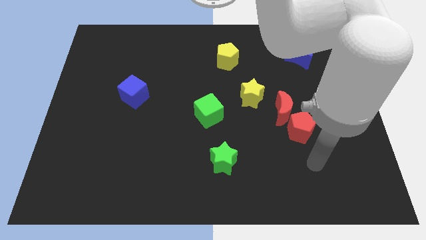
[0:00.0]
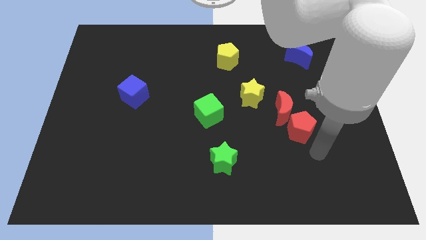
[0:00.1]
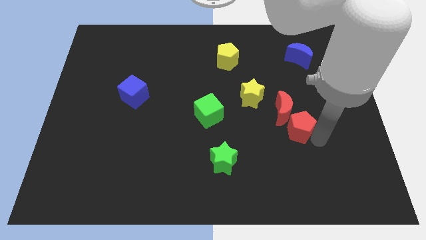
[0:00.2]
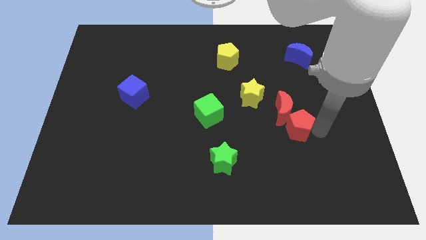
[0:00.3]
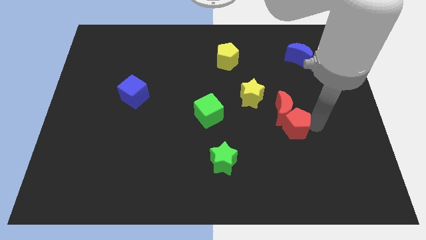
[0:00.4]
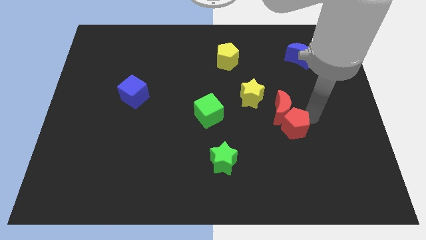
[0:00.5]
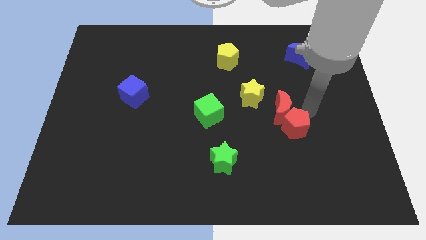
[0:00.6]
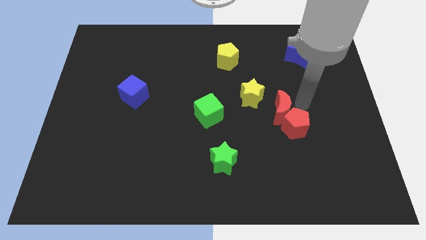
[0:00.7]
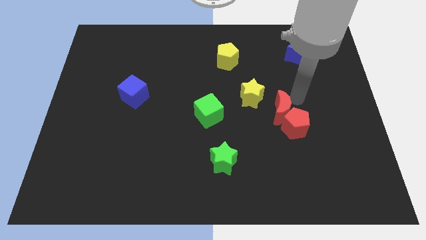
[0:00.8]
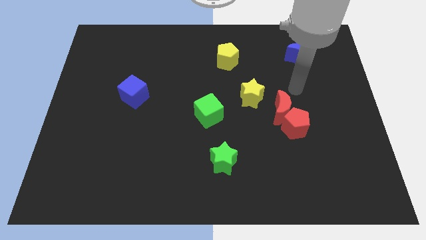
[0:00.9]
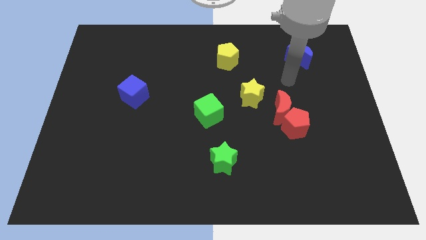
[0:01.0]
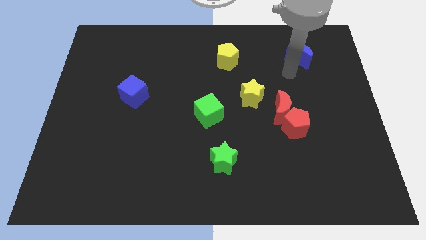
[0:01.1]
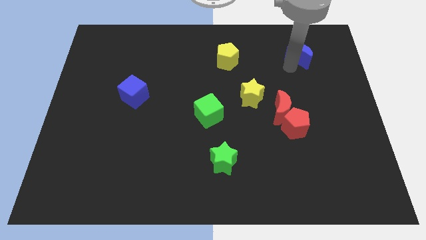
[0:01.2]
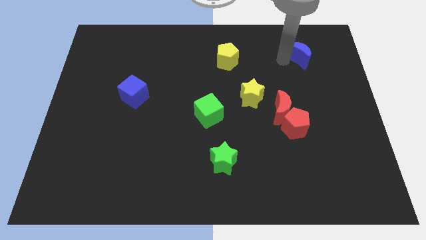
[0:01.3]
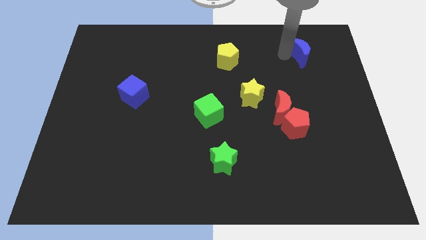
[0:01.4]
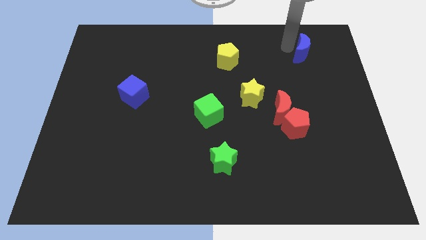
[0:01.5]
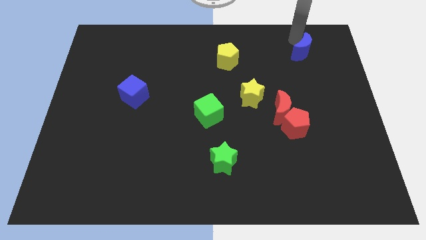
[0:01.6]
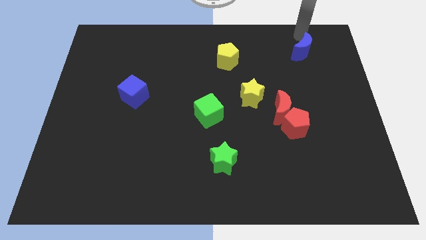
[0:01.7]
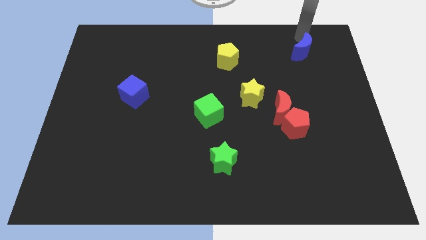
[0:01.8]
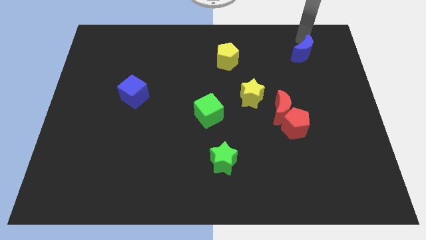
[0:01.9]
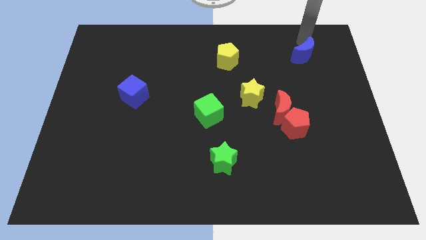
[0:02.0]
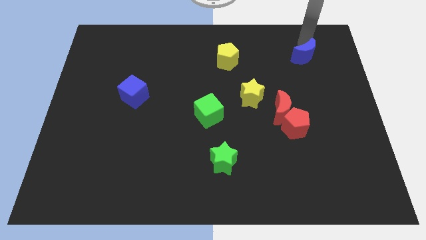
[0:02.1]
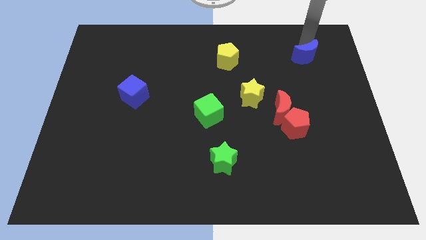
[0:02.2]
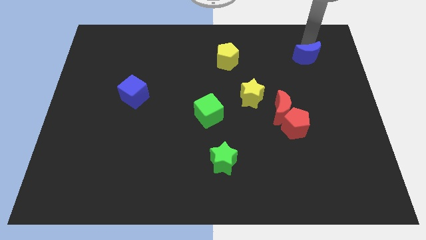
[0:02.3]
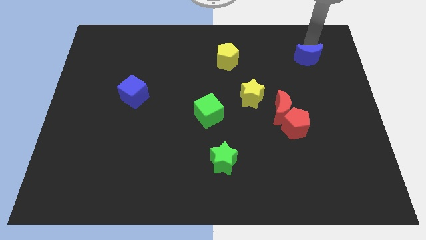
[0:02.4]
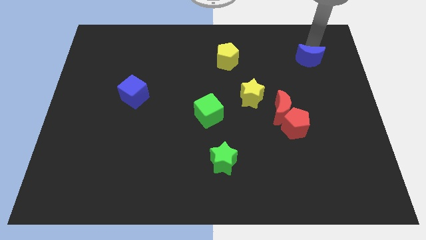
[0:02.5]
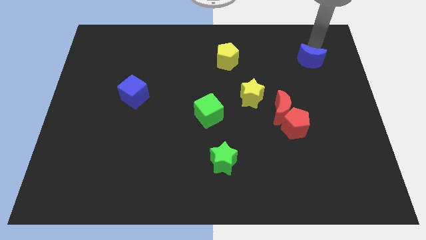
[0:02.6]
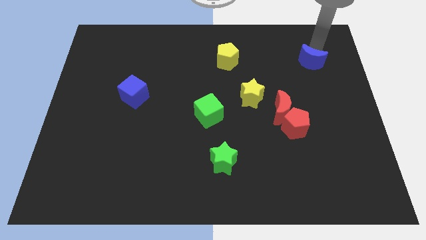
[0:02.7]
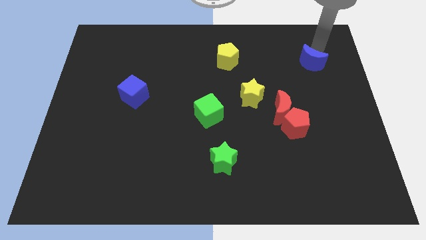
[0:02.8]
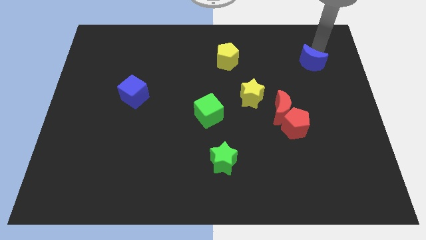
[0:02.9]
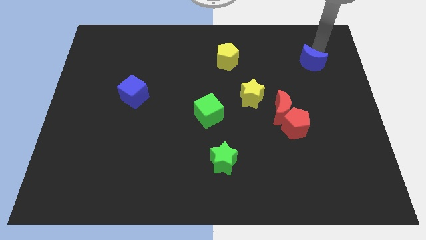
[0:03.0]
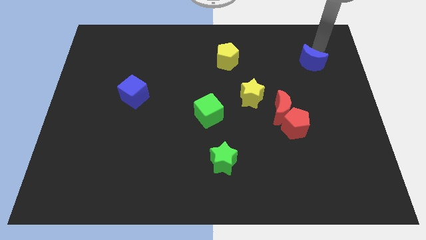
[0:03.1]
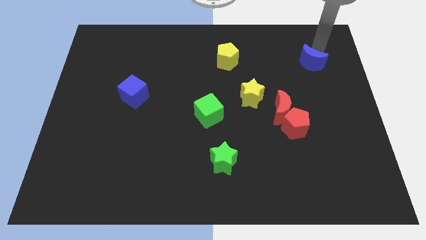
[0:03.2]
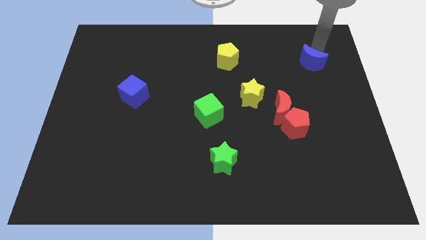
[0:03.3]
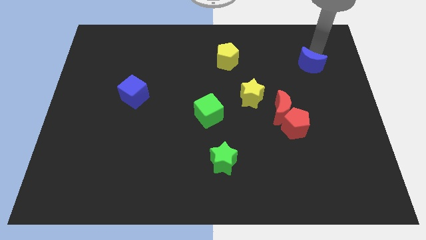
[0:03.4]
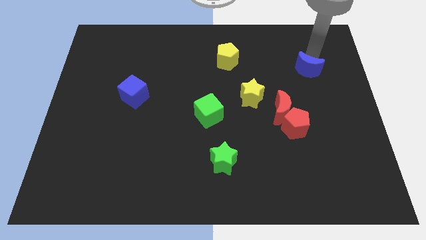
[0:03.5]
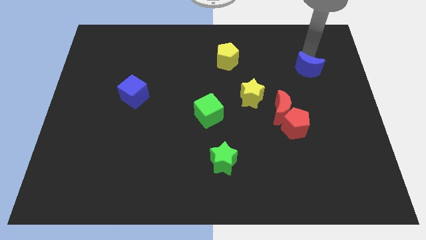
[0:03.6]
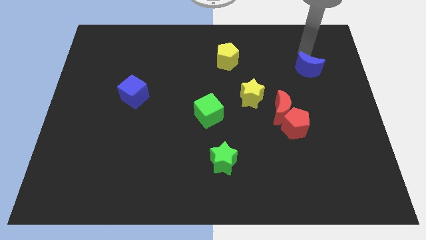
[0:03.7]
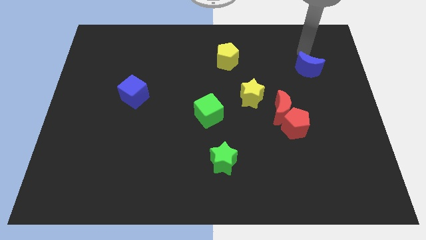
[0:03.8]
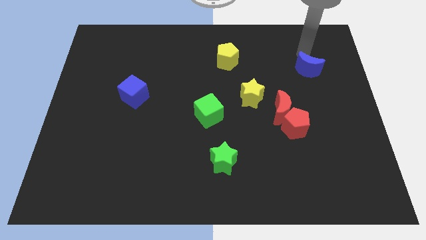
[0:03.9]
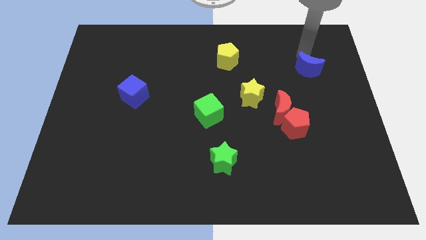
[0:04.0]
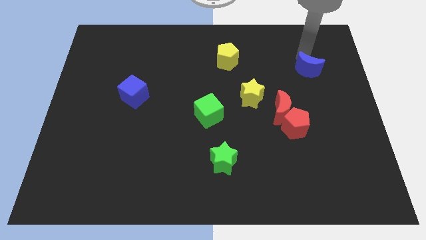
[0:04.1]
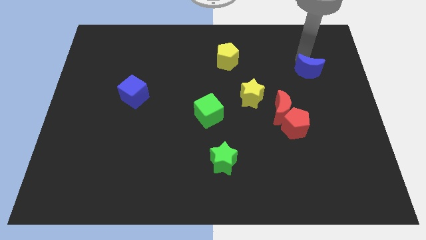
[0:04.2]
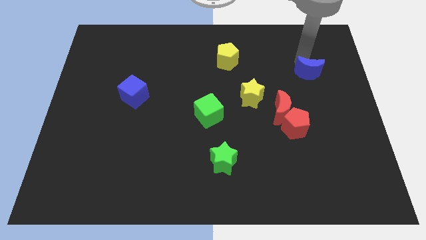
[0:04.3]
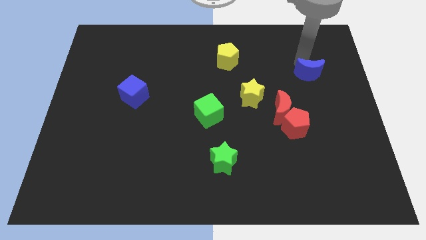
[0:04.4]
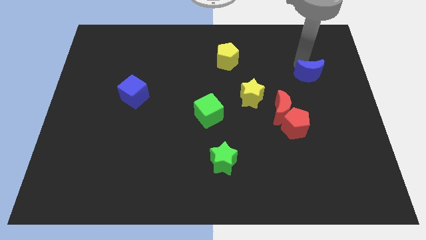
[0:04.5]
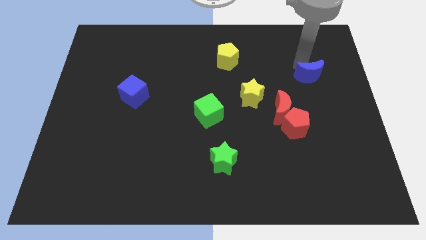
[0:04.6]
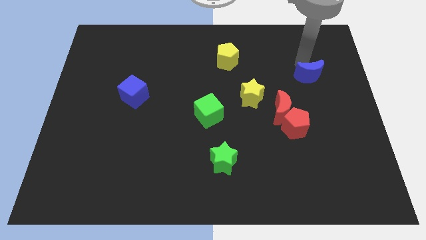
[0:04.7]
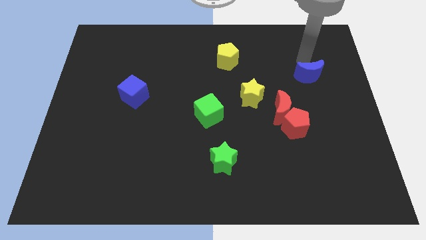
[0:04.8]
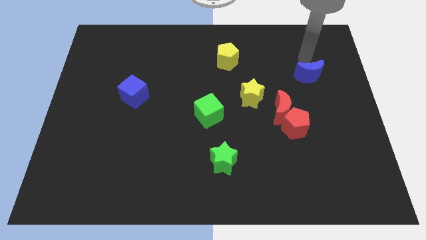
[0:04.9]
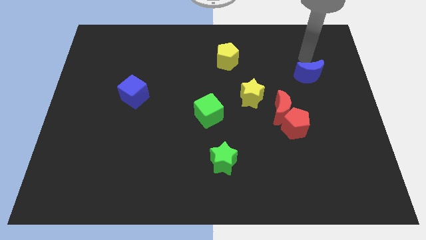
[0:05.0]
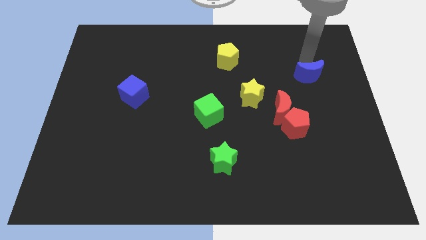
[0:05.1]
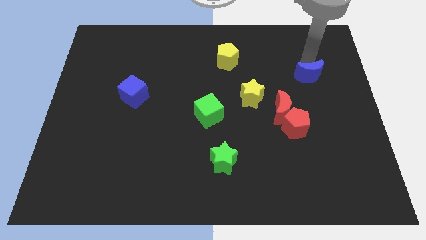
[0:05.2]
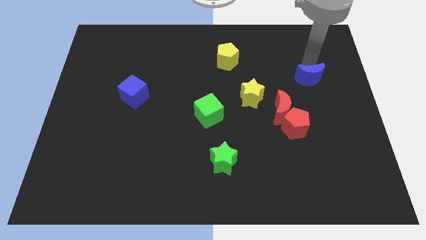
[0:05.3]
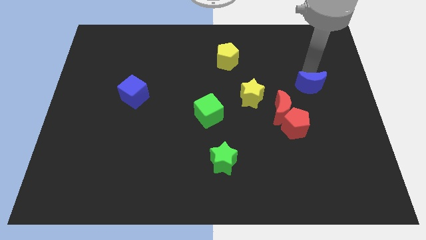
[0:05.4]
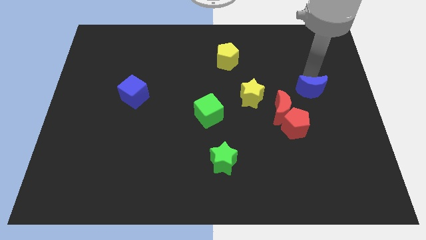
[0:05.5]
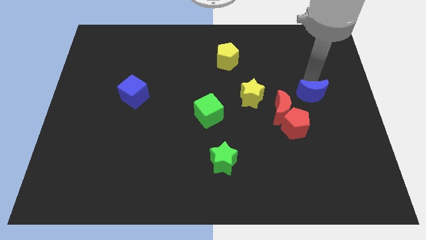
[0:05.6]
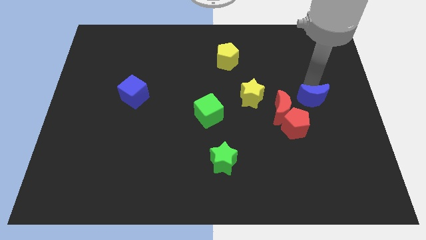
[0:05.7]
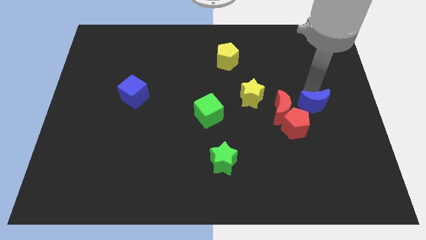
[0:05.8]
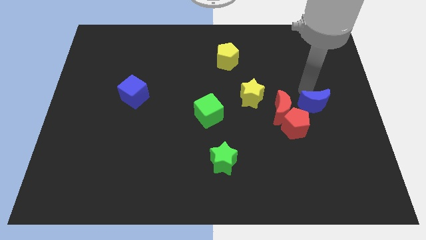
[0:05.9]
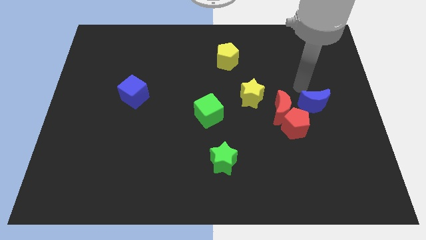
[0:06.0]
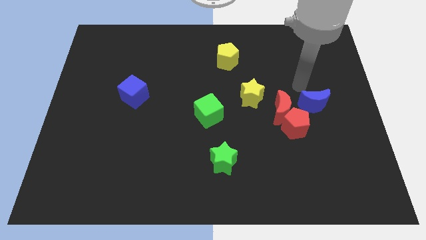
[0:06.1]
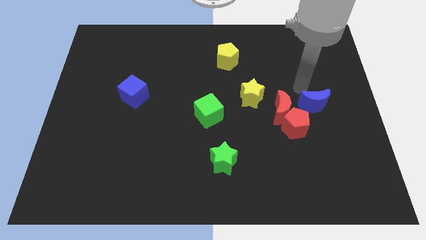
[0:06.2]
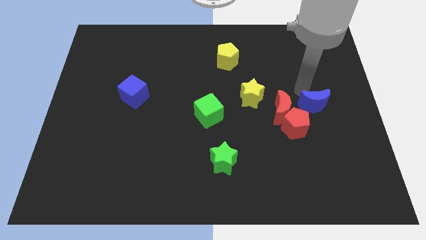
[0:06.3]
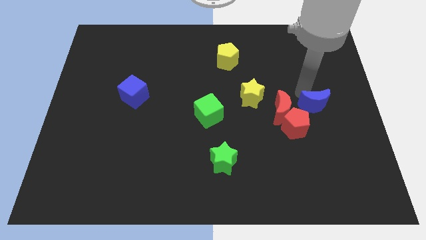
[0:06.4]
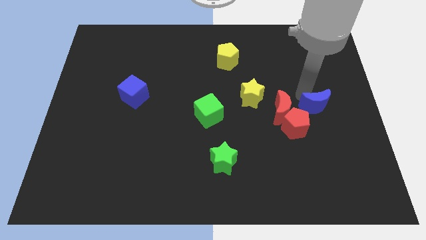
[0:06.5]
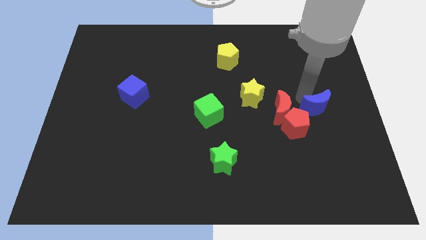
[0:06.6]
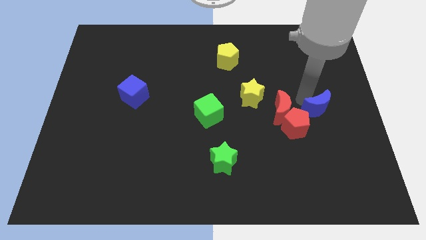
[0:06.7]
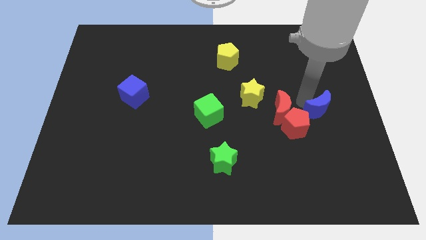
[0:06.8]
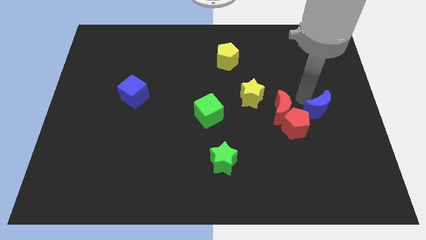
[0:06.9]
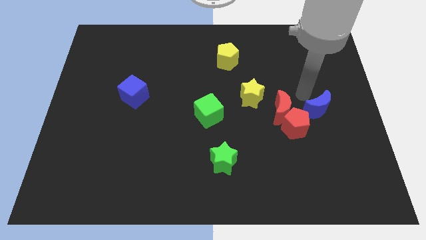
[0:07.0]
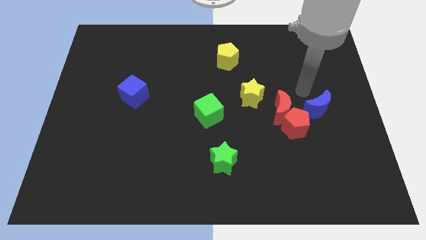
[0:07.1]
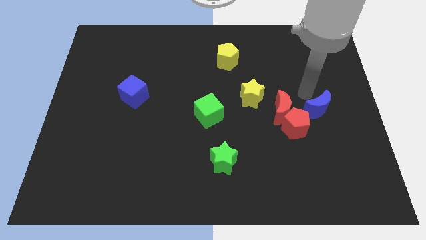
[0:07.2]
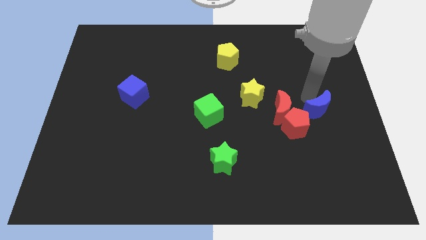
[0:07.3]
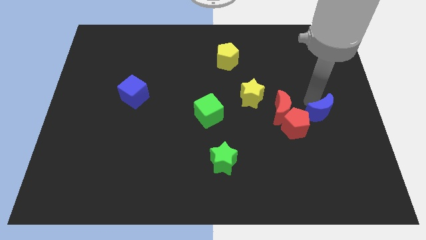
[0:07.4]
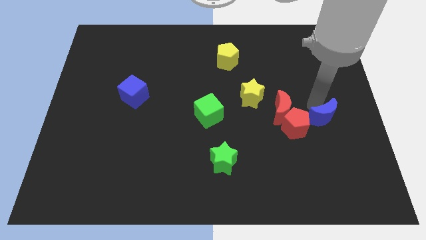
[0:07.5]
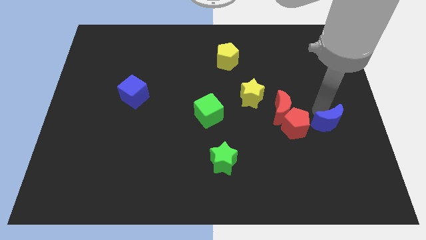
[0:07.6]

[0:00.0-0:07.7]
move the blue moon down
